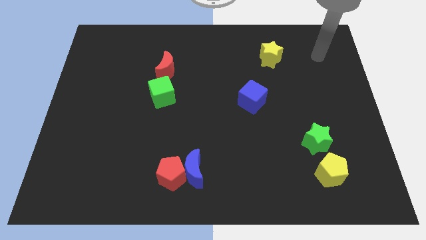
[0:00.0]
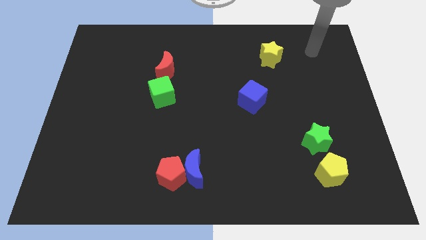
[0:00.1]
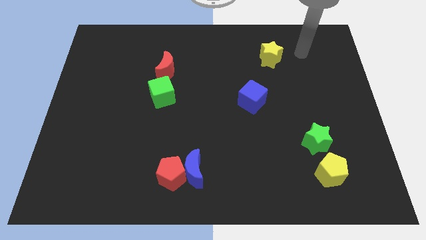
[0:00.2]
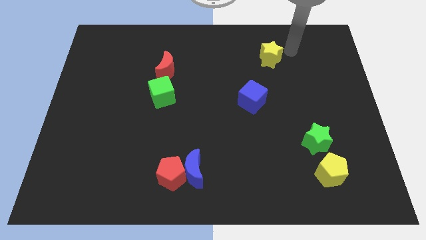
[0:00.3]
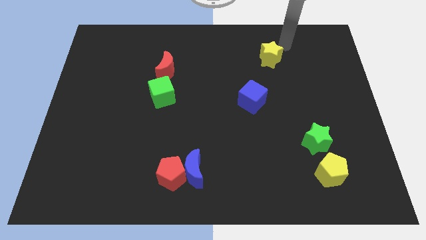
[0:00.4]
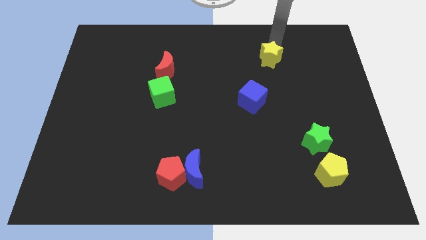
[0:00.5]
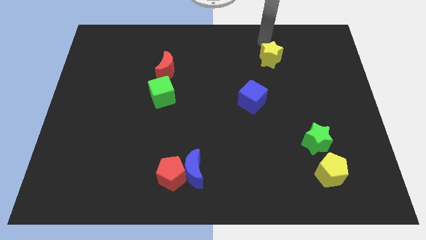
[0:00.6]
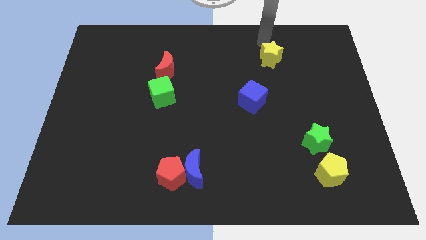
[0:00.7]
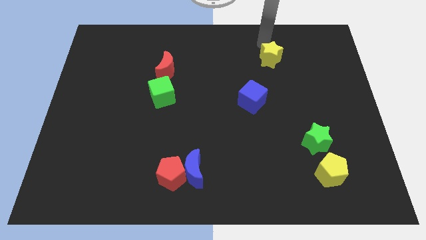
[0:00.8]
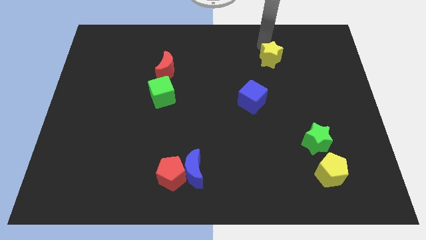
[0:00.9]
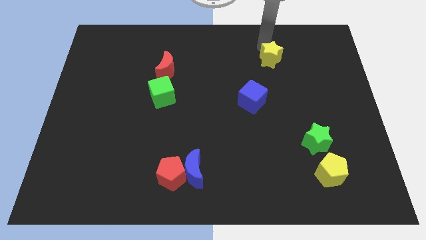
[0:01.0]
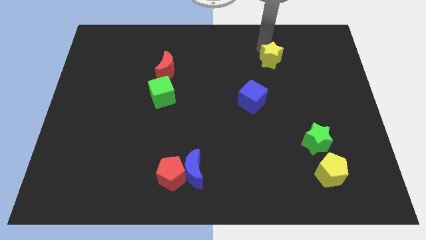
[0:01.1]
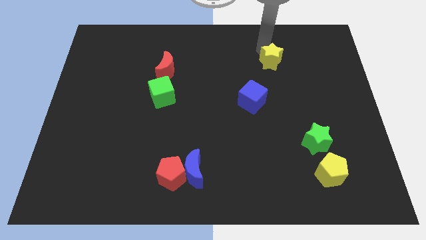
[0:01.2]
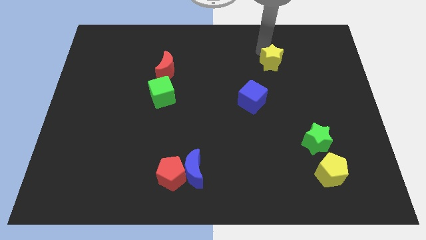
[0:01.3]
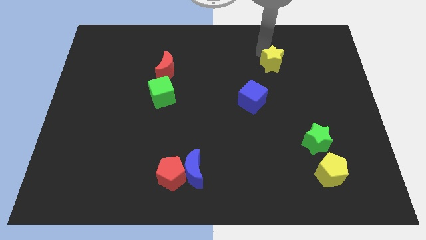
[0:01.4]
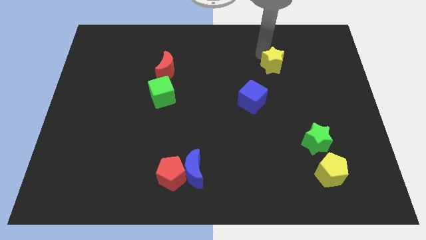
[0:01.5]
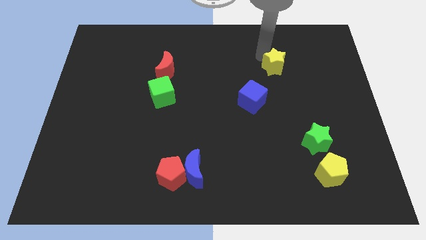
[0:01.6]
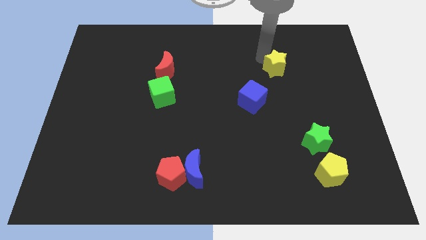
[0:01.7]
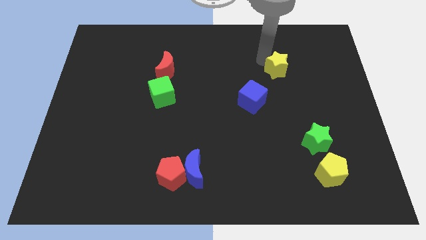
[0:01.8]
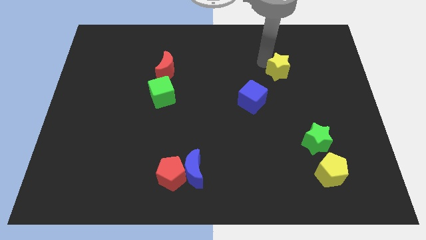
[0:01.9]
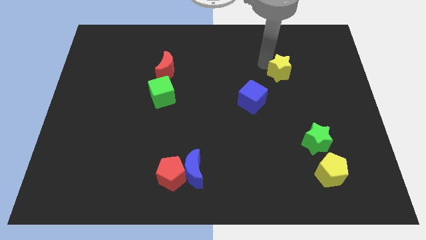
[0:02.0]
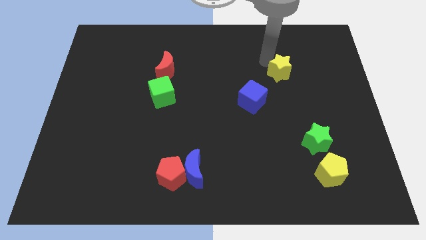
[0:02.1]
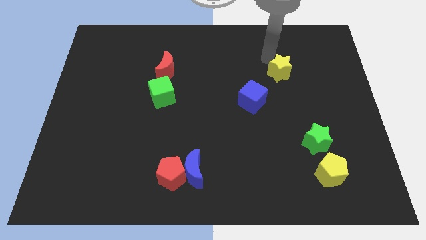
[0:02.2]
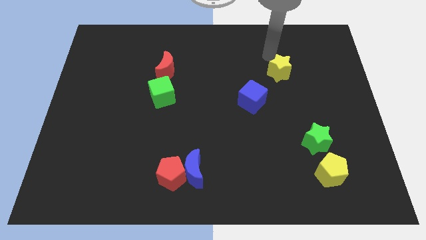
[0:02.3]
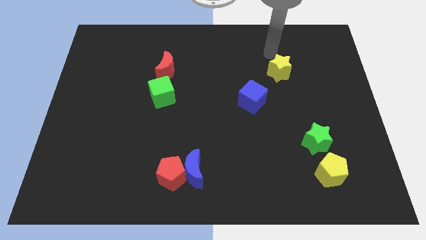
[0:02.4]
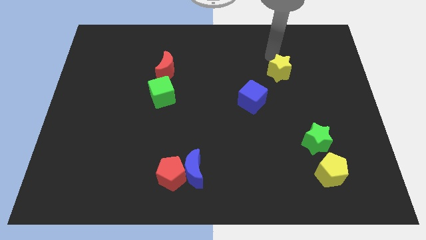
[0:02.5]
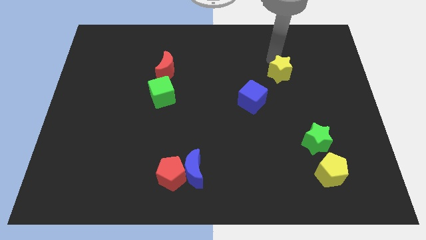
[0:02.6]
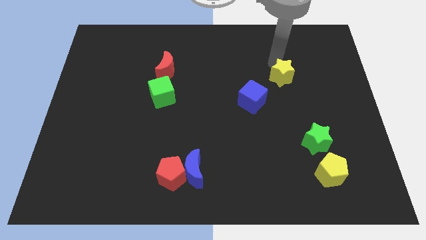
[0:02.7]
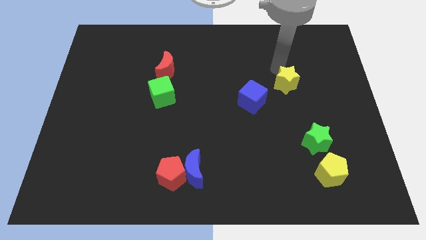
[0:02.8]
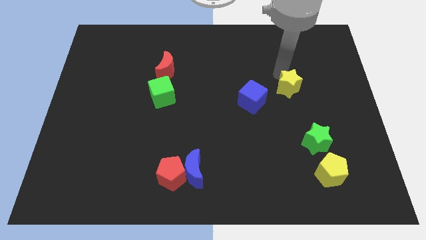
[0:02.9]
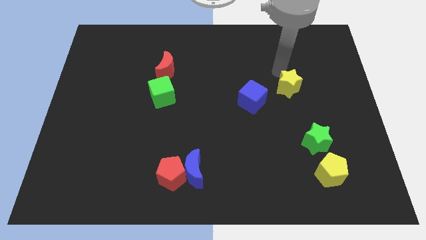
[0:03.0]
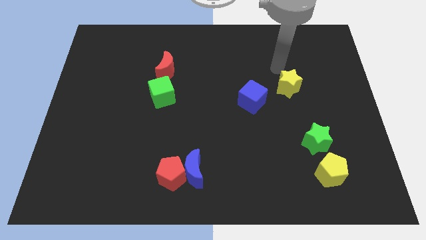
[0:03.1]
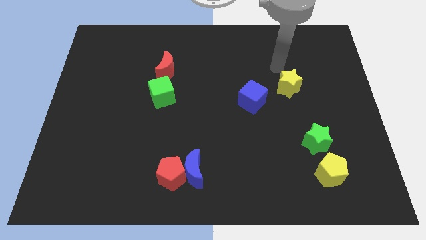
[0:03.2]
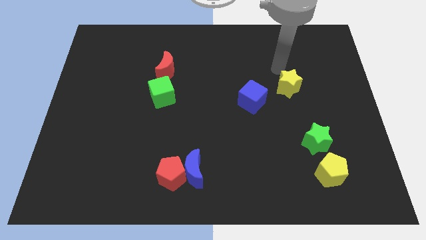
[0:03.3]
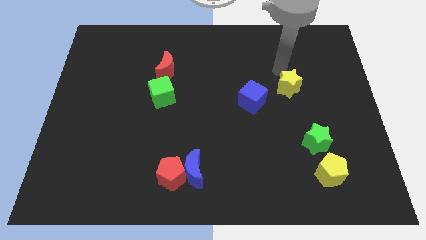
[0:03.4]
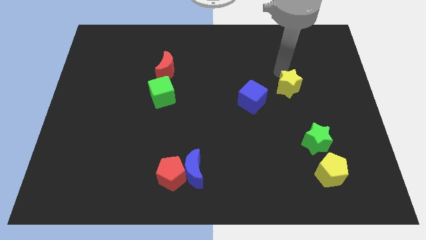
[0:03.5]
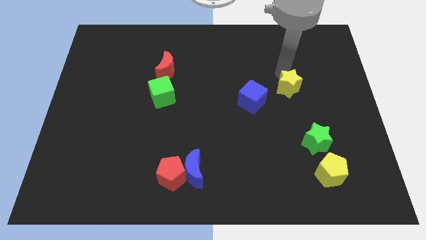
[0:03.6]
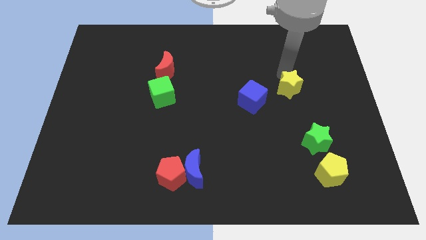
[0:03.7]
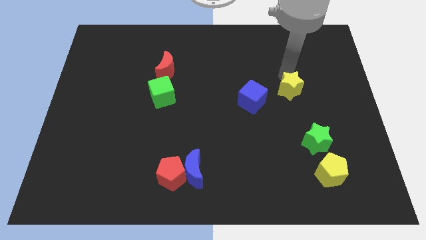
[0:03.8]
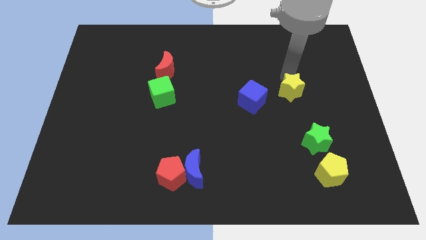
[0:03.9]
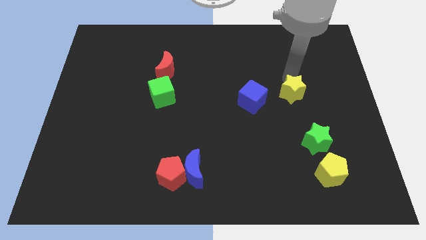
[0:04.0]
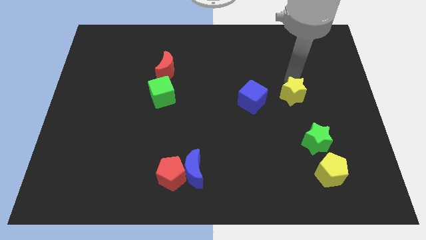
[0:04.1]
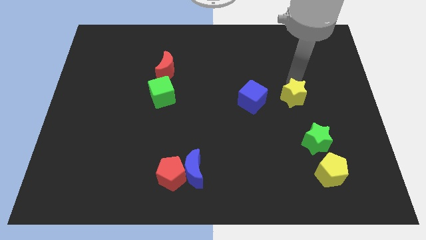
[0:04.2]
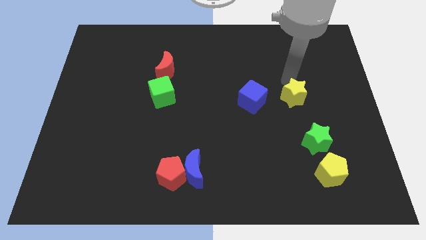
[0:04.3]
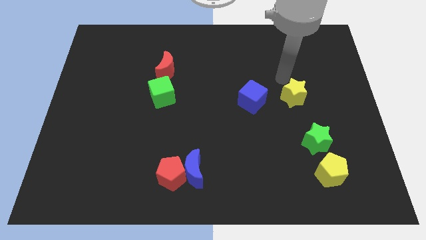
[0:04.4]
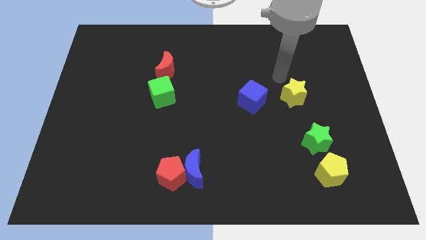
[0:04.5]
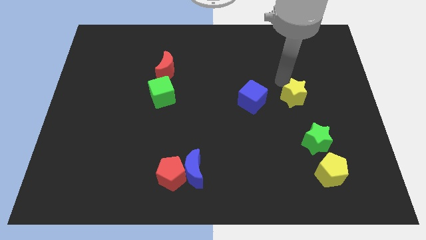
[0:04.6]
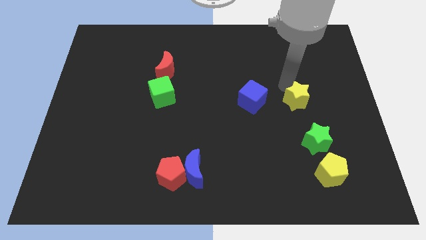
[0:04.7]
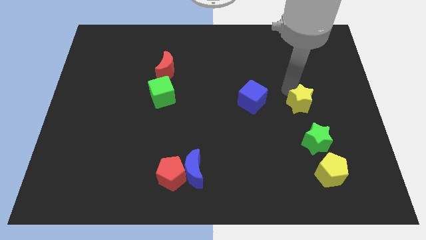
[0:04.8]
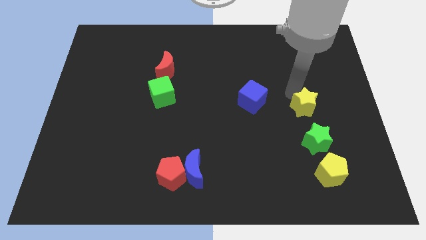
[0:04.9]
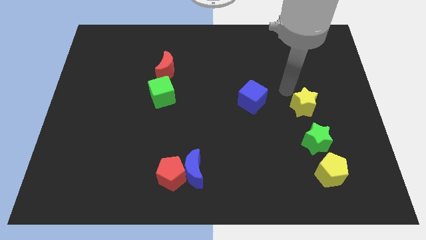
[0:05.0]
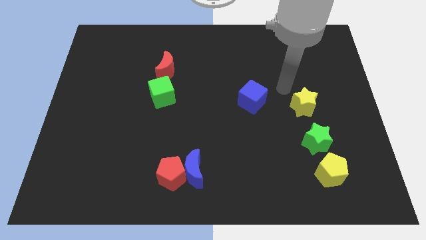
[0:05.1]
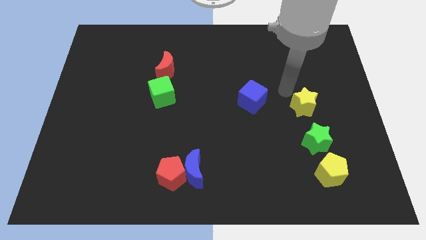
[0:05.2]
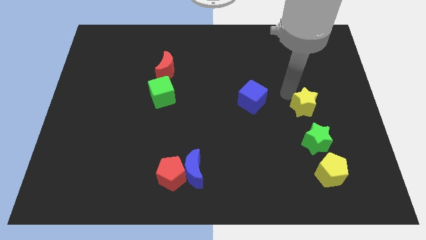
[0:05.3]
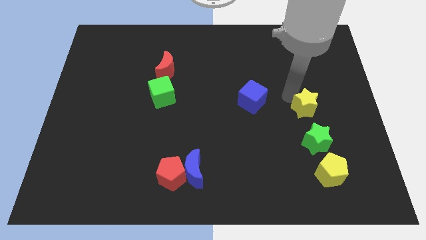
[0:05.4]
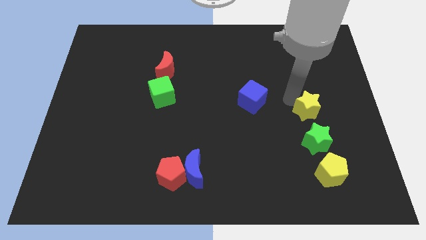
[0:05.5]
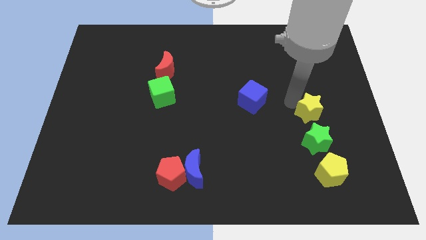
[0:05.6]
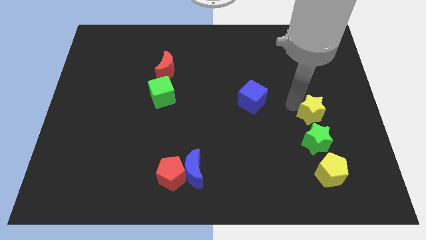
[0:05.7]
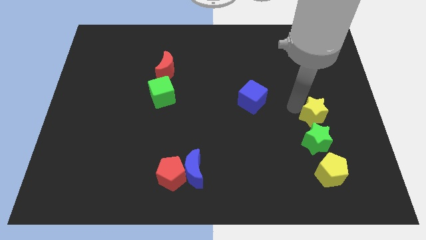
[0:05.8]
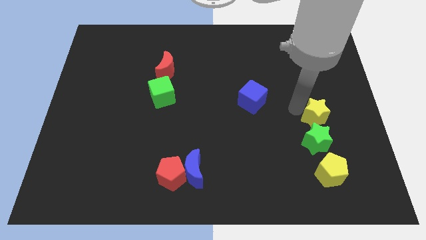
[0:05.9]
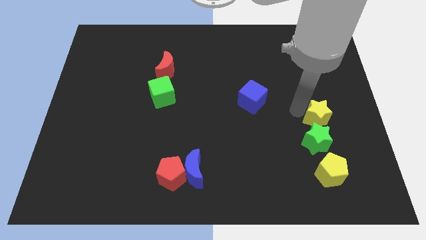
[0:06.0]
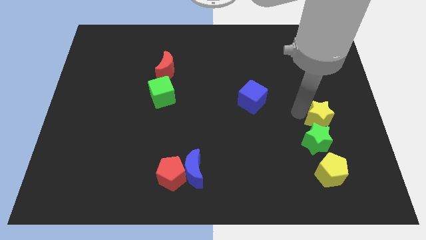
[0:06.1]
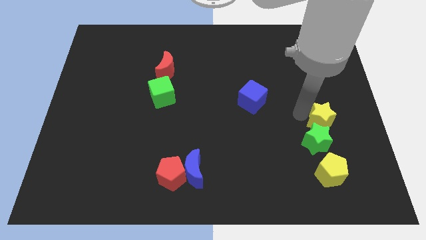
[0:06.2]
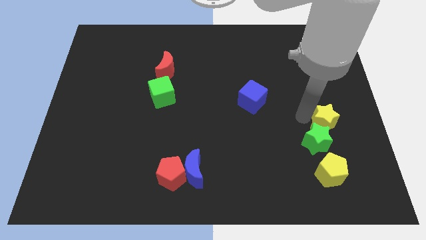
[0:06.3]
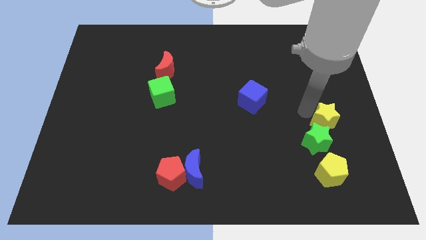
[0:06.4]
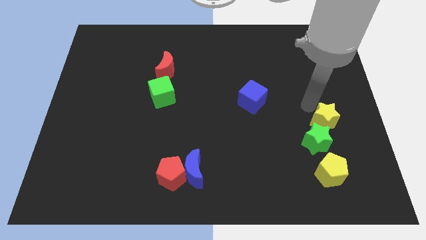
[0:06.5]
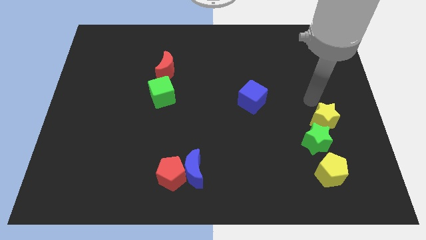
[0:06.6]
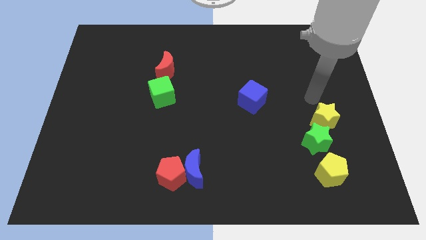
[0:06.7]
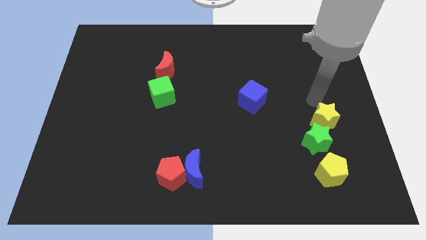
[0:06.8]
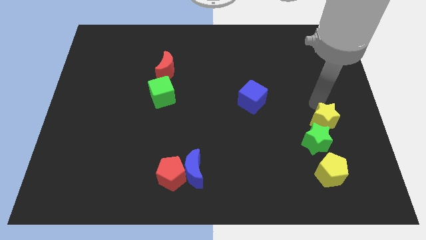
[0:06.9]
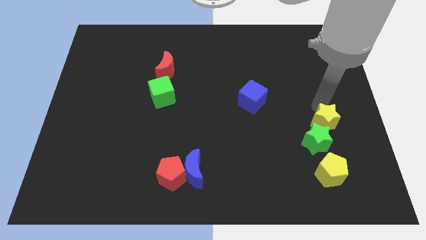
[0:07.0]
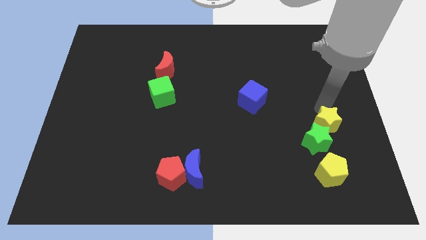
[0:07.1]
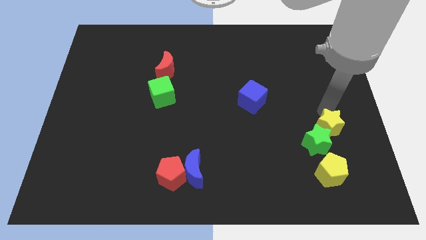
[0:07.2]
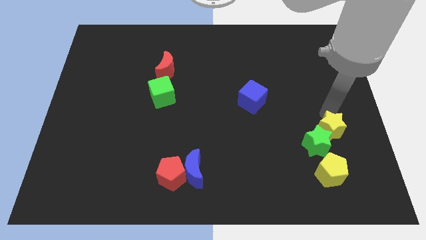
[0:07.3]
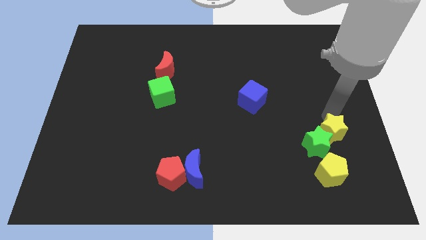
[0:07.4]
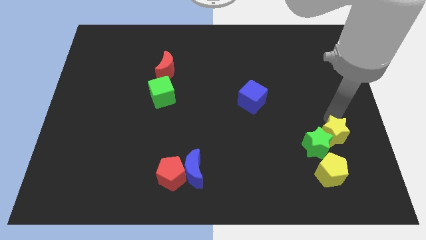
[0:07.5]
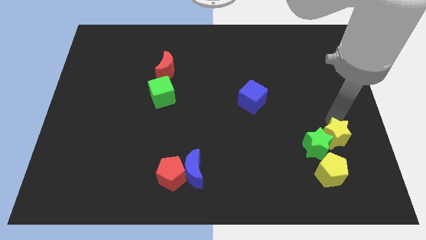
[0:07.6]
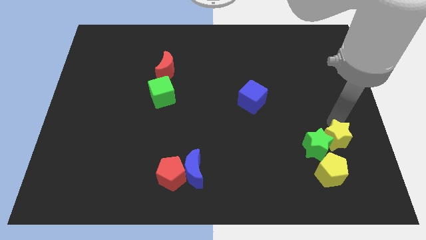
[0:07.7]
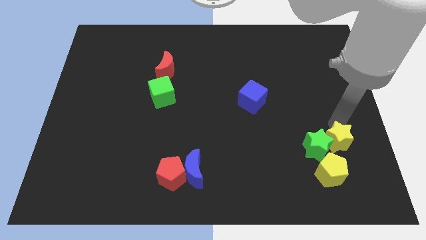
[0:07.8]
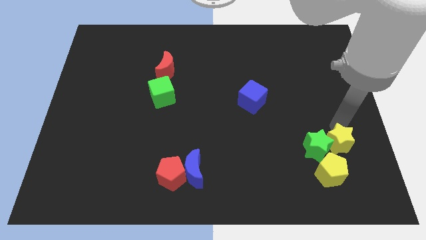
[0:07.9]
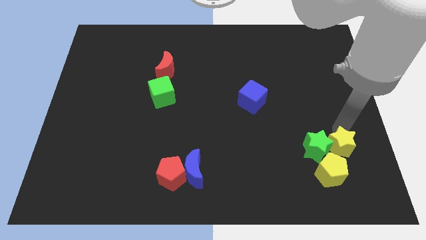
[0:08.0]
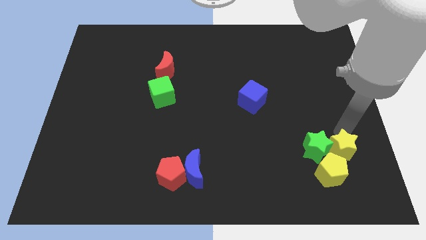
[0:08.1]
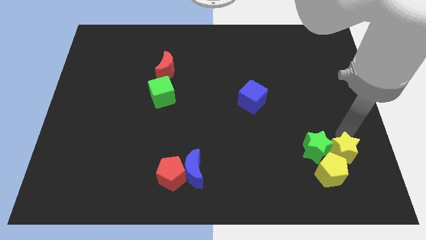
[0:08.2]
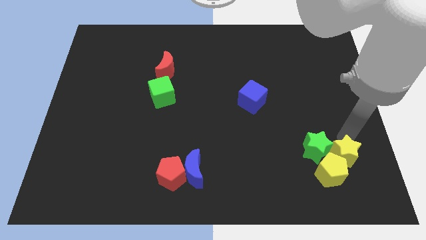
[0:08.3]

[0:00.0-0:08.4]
slide the yellow star to the yellow pentagon
